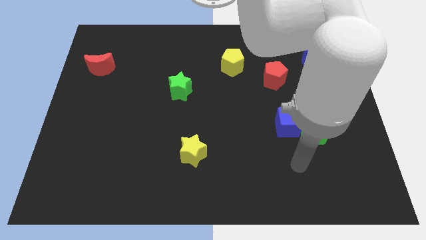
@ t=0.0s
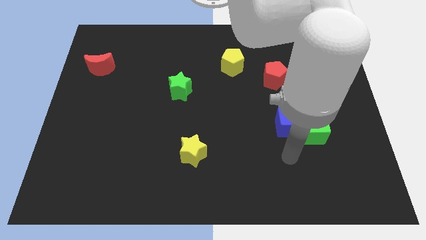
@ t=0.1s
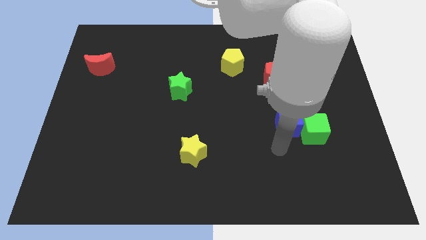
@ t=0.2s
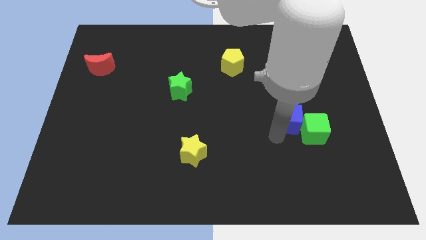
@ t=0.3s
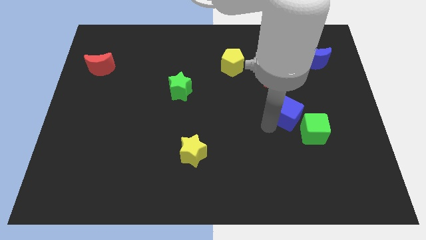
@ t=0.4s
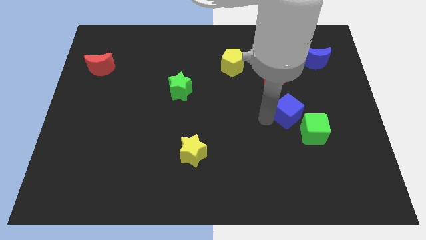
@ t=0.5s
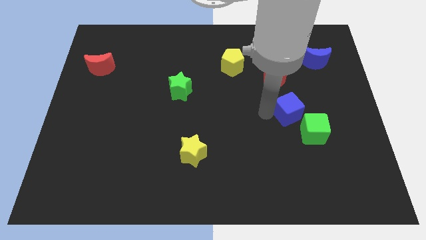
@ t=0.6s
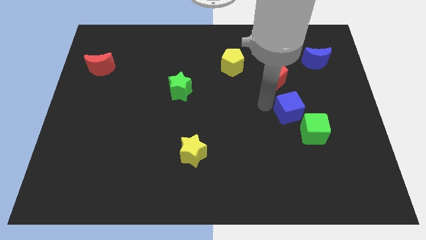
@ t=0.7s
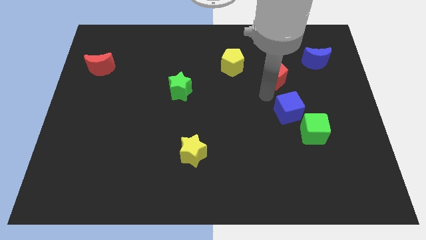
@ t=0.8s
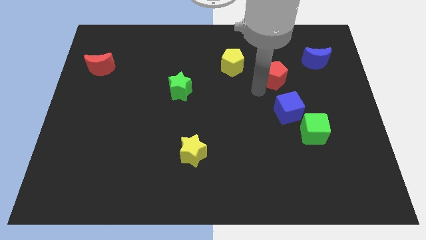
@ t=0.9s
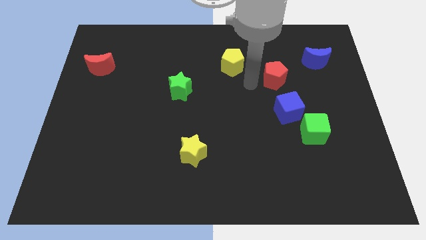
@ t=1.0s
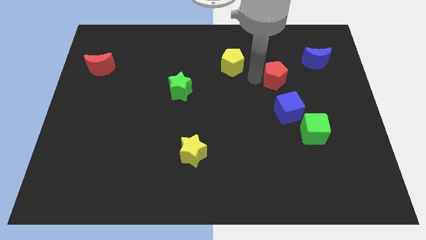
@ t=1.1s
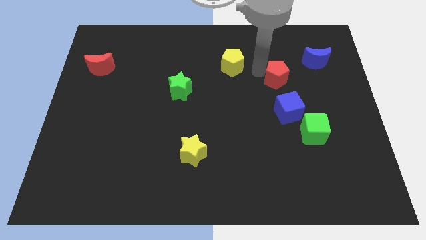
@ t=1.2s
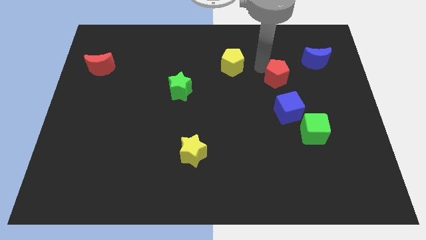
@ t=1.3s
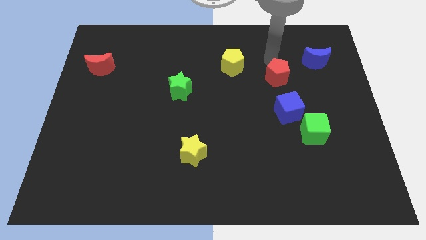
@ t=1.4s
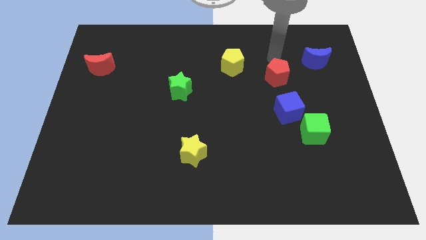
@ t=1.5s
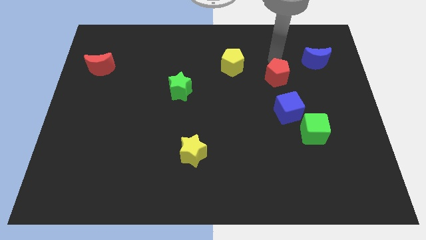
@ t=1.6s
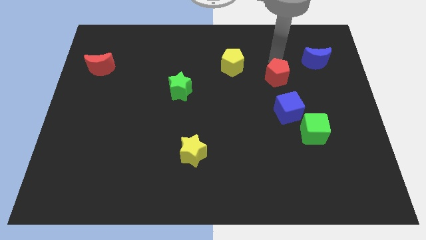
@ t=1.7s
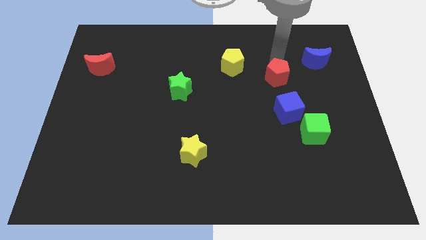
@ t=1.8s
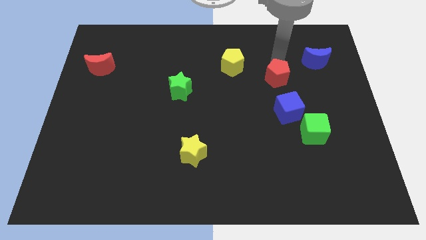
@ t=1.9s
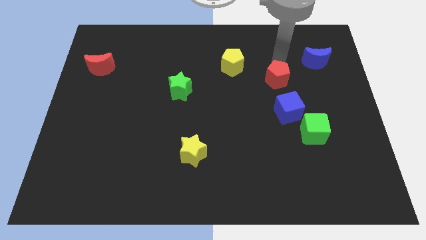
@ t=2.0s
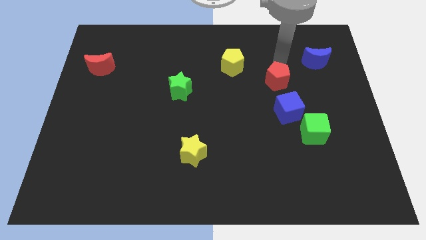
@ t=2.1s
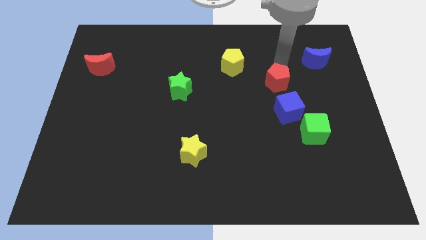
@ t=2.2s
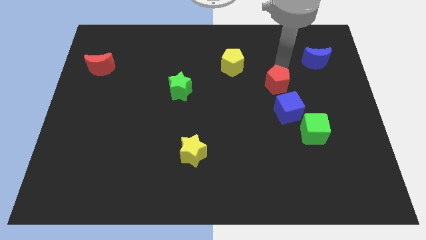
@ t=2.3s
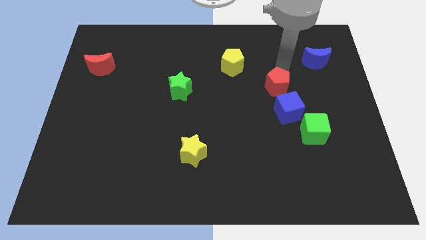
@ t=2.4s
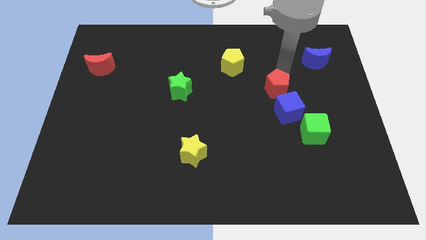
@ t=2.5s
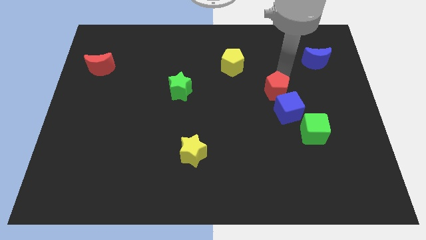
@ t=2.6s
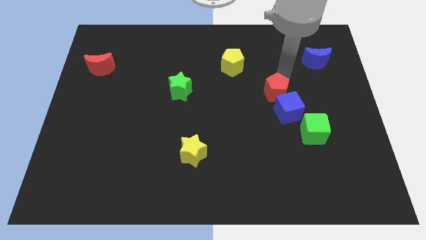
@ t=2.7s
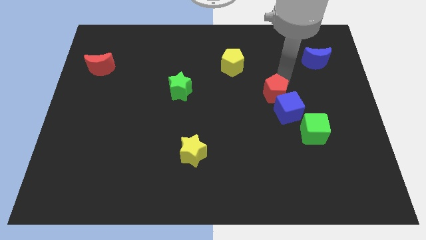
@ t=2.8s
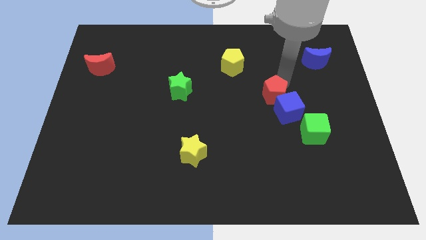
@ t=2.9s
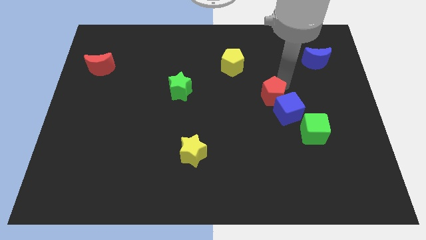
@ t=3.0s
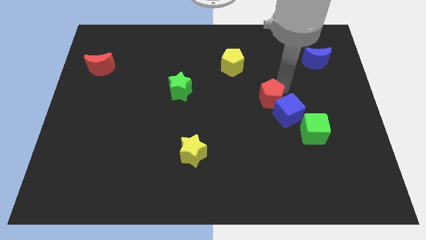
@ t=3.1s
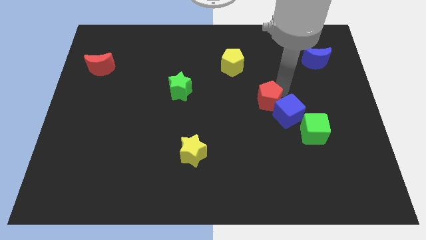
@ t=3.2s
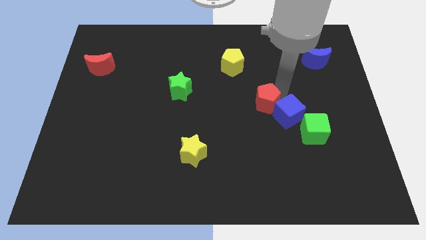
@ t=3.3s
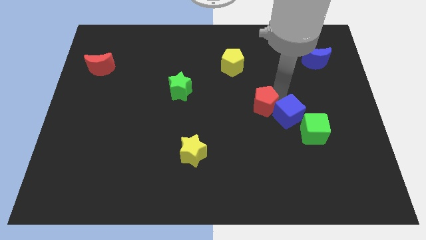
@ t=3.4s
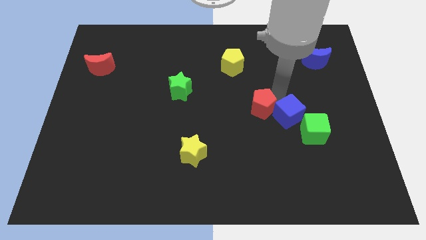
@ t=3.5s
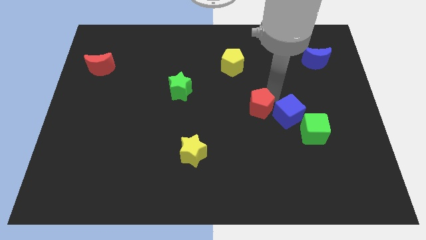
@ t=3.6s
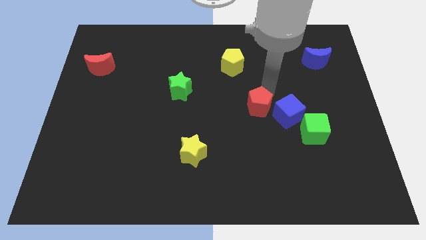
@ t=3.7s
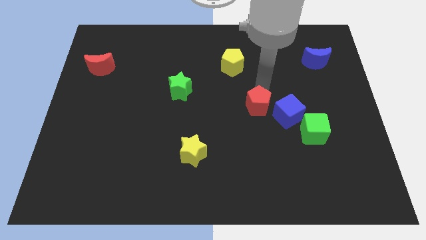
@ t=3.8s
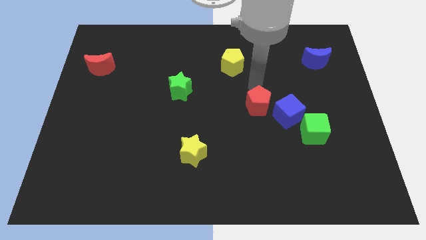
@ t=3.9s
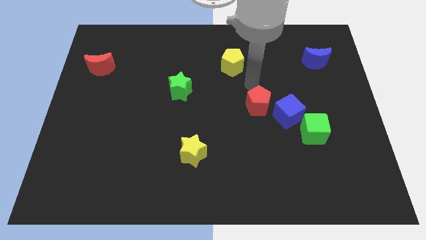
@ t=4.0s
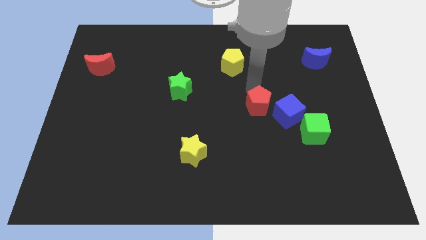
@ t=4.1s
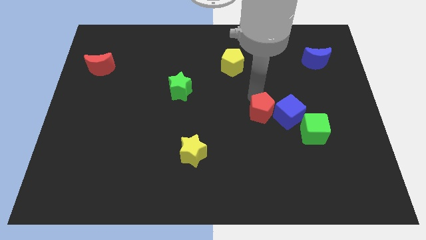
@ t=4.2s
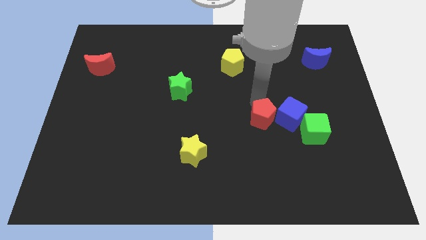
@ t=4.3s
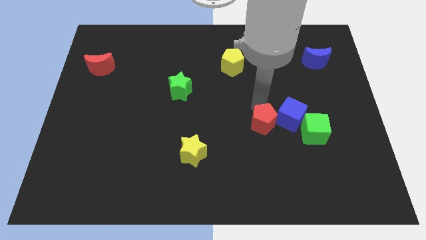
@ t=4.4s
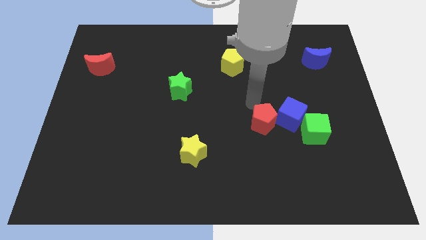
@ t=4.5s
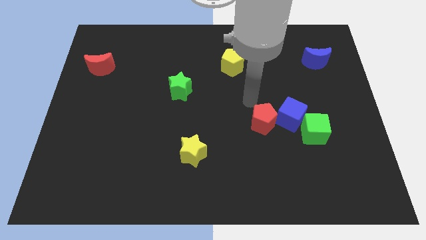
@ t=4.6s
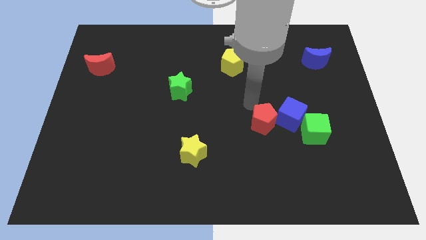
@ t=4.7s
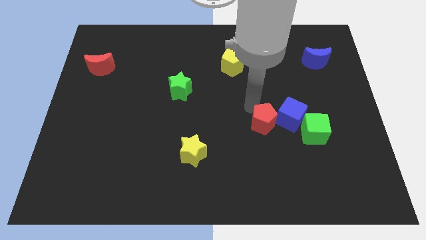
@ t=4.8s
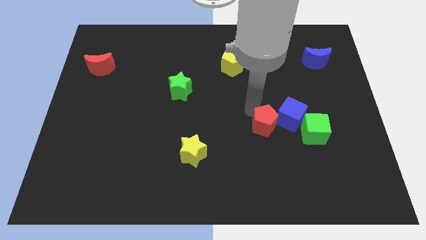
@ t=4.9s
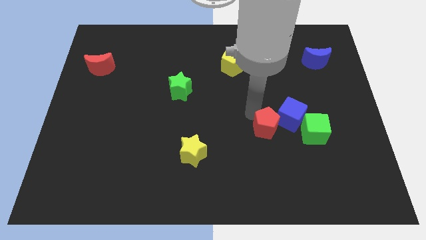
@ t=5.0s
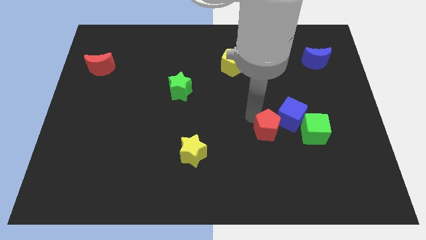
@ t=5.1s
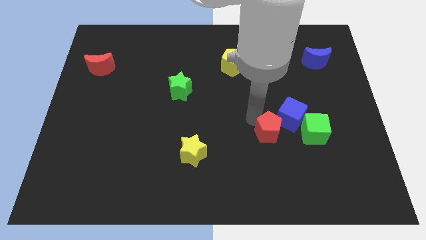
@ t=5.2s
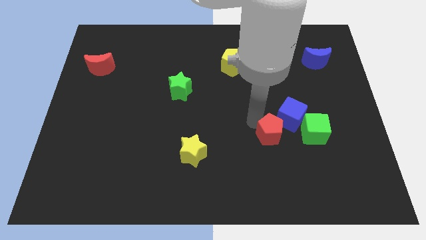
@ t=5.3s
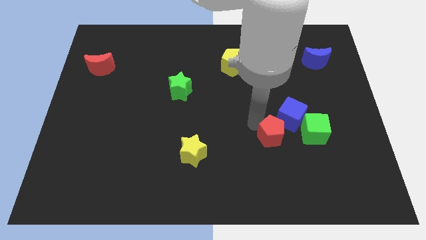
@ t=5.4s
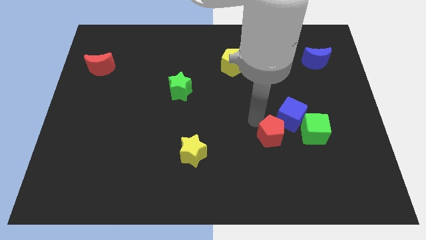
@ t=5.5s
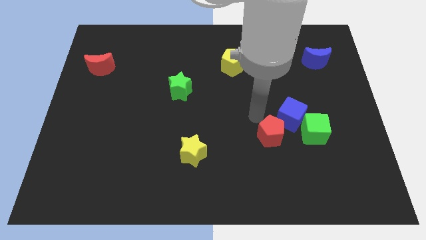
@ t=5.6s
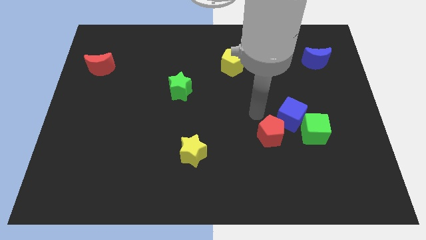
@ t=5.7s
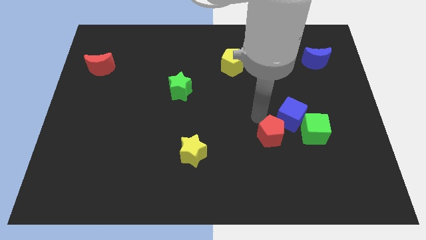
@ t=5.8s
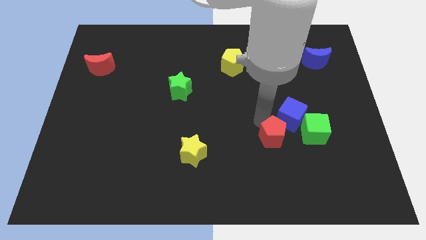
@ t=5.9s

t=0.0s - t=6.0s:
slide the red pentagon to the bottom of the blue cube

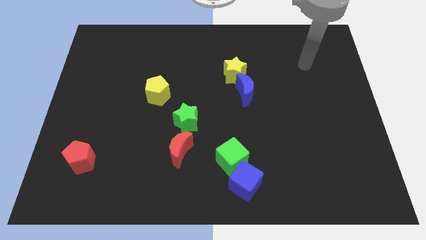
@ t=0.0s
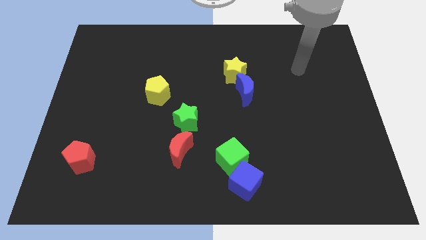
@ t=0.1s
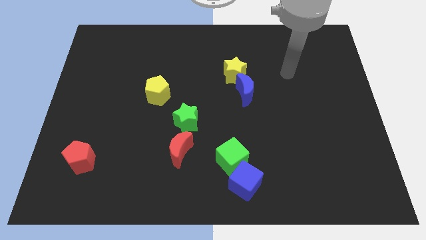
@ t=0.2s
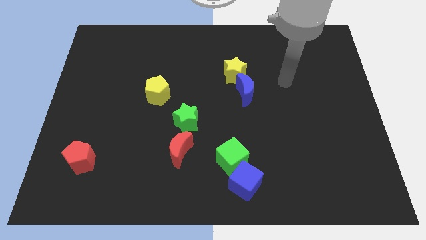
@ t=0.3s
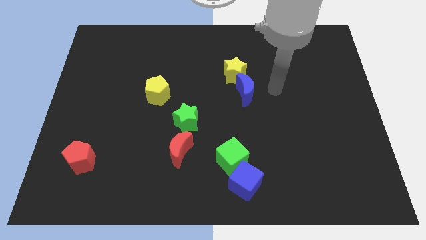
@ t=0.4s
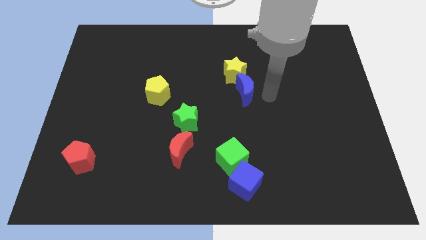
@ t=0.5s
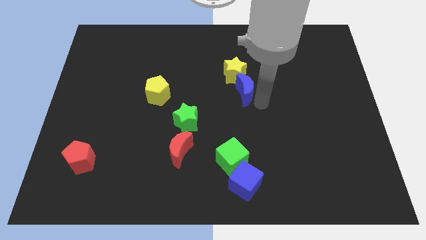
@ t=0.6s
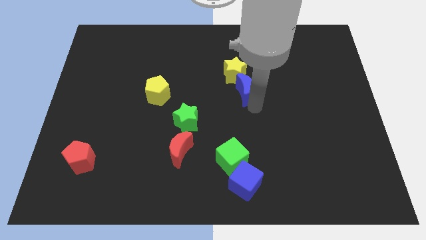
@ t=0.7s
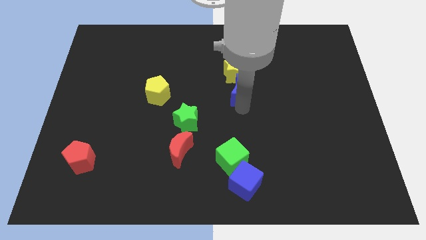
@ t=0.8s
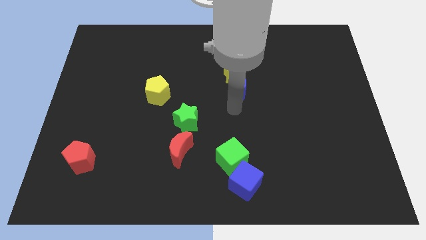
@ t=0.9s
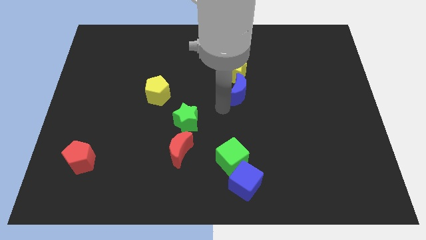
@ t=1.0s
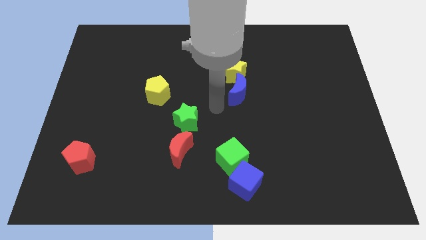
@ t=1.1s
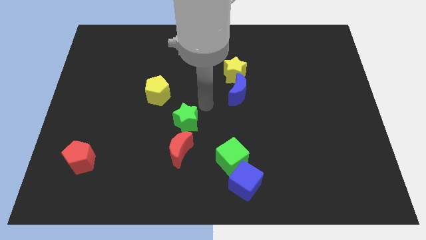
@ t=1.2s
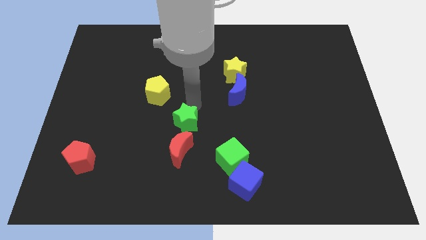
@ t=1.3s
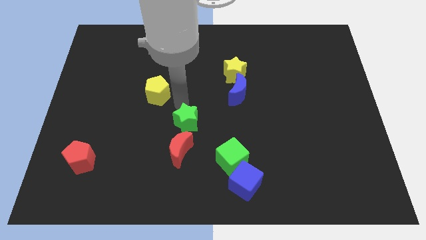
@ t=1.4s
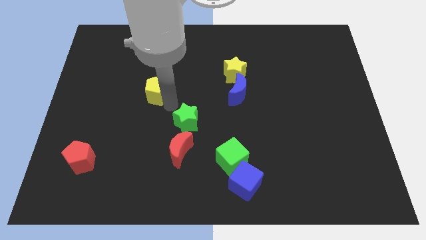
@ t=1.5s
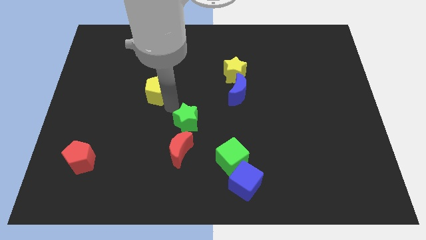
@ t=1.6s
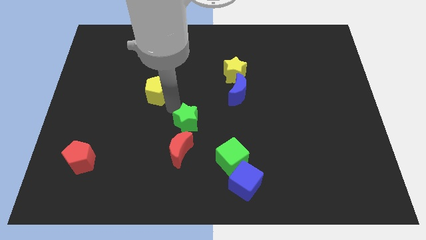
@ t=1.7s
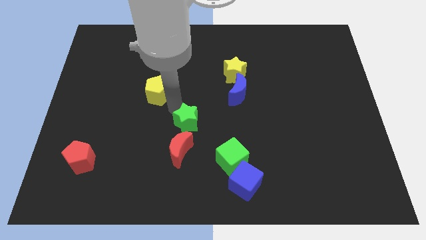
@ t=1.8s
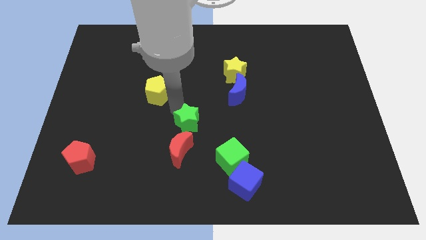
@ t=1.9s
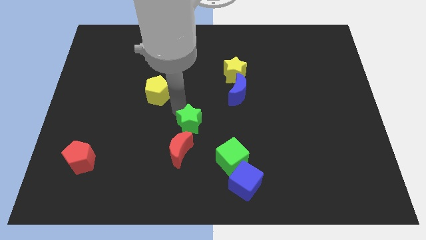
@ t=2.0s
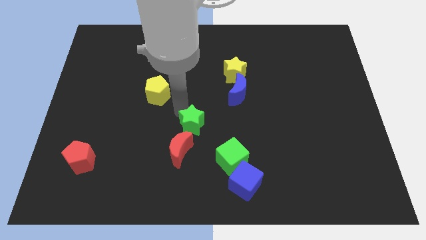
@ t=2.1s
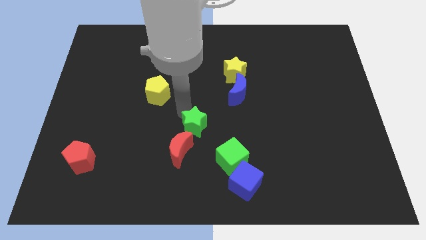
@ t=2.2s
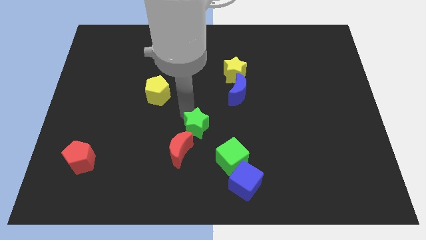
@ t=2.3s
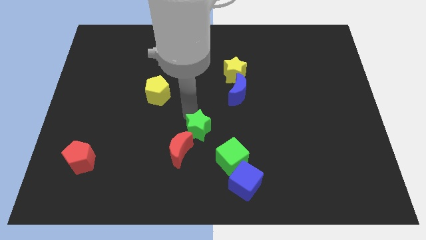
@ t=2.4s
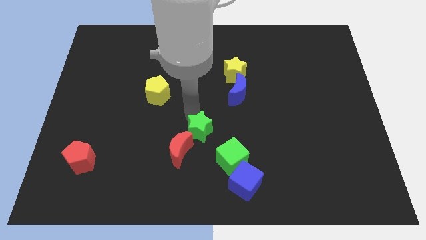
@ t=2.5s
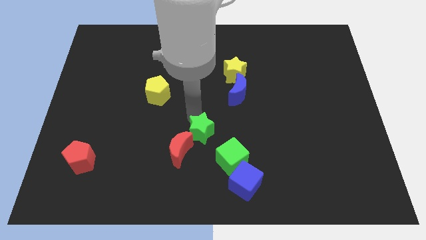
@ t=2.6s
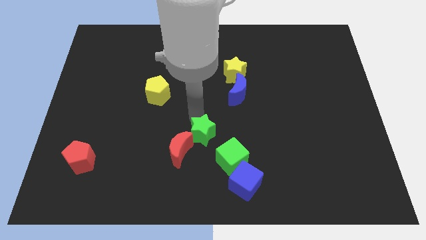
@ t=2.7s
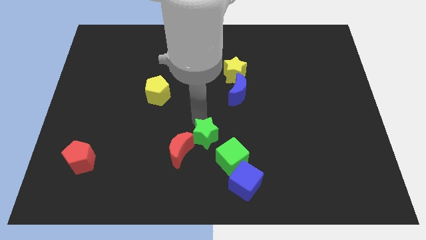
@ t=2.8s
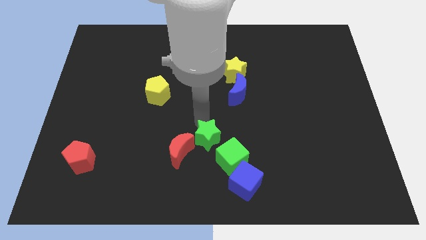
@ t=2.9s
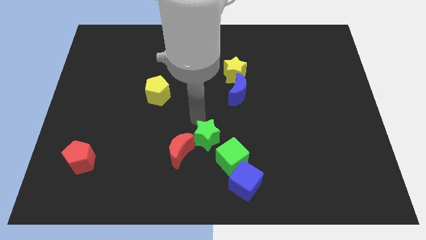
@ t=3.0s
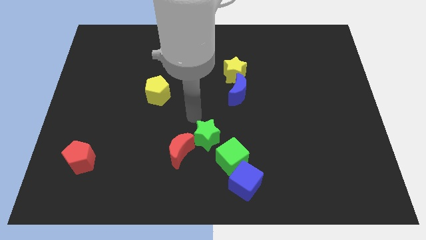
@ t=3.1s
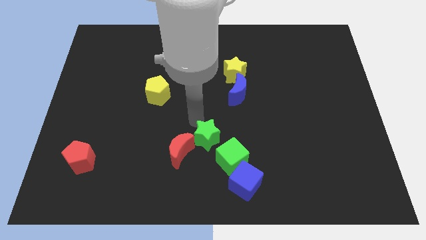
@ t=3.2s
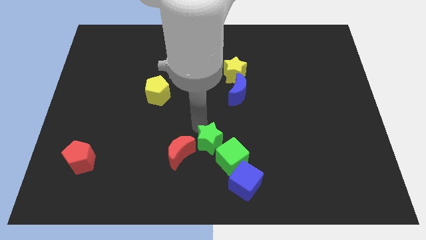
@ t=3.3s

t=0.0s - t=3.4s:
move the green star to the top left side of the blue cube
